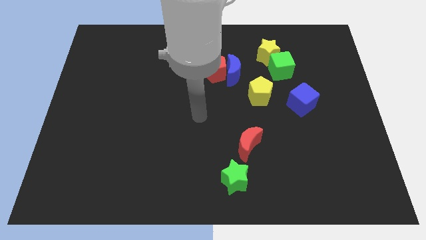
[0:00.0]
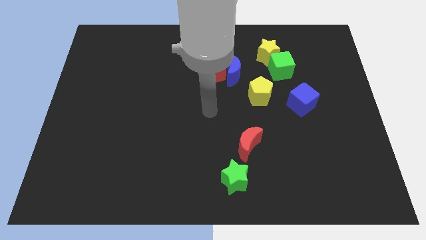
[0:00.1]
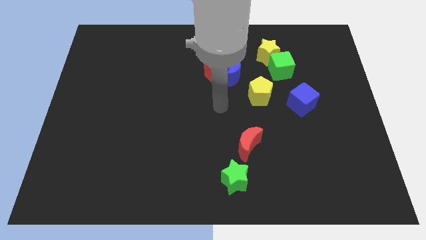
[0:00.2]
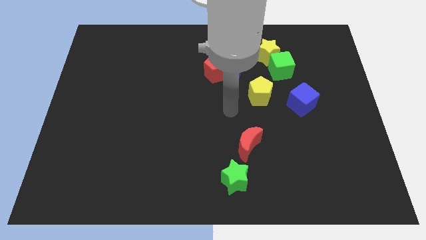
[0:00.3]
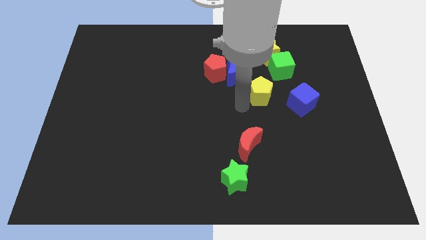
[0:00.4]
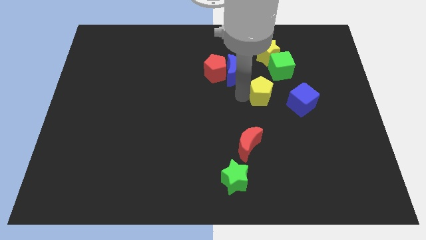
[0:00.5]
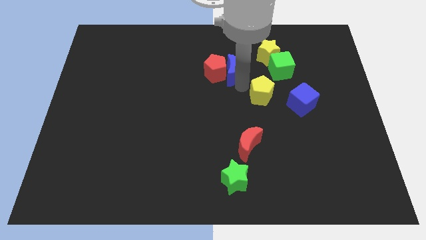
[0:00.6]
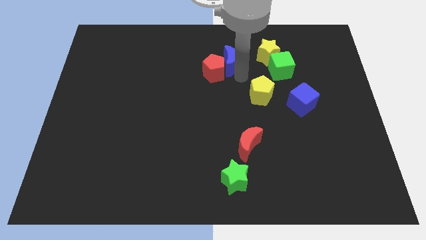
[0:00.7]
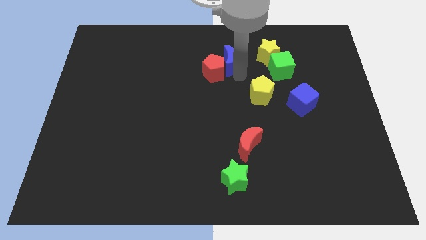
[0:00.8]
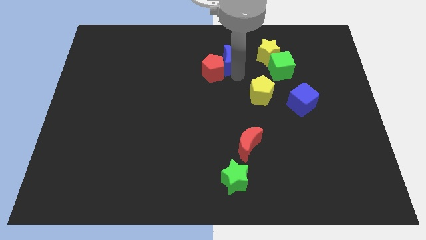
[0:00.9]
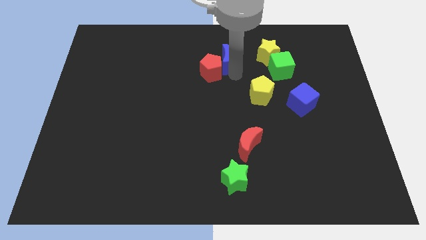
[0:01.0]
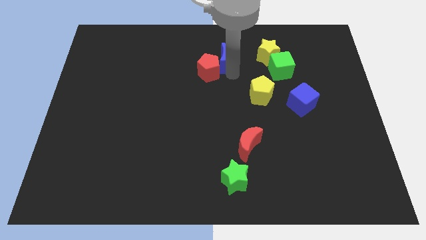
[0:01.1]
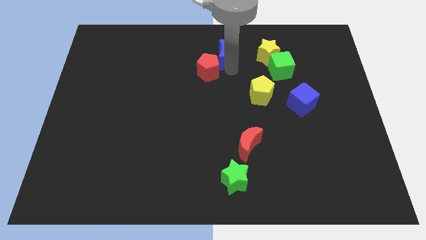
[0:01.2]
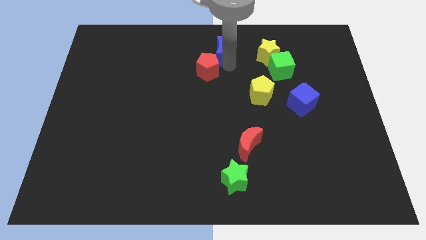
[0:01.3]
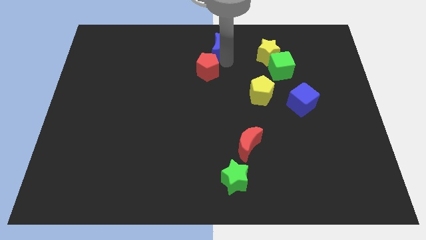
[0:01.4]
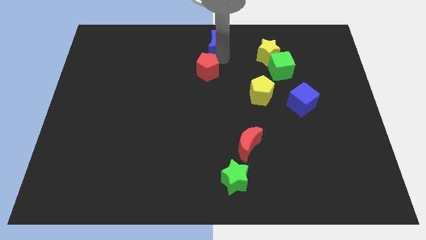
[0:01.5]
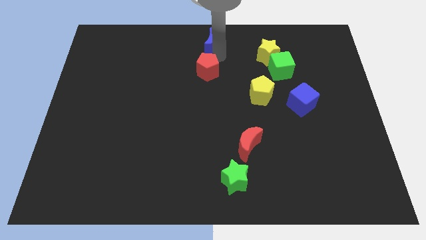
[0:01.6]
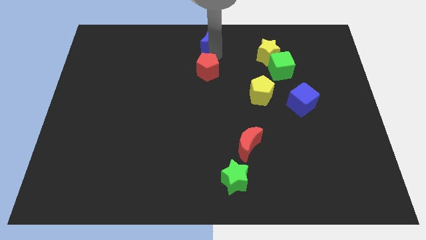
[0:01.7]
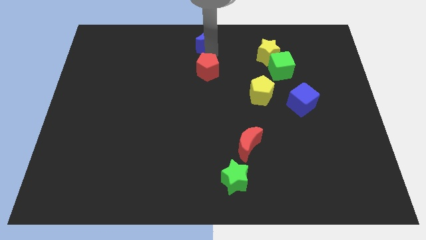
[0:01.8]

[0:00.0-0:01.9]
separate the red pentagon from the blue moon

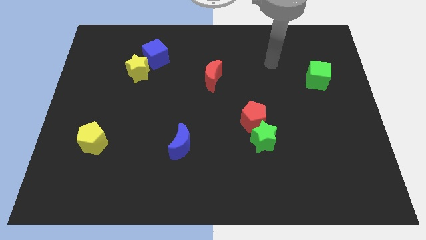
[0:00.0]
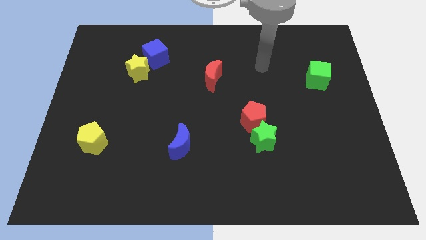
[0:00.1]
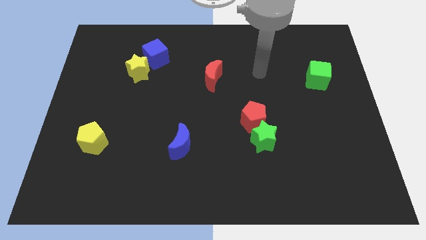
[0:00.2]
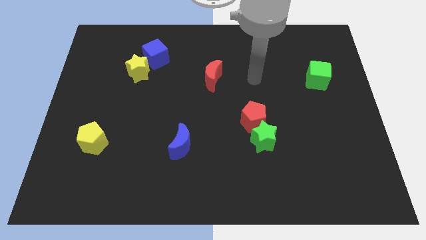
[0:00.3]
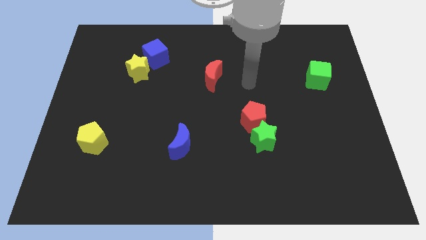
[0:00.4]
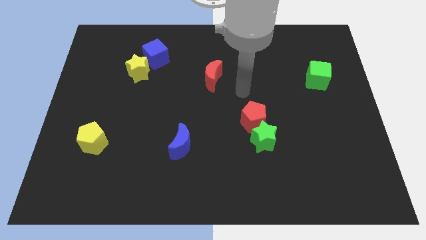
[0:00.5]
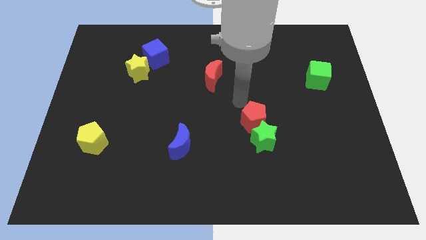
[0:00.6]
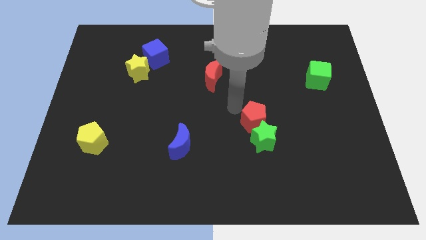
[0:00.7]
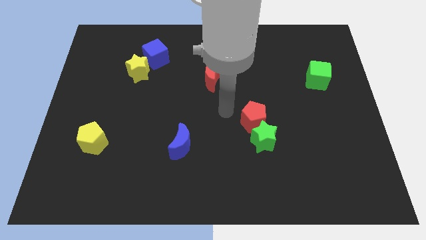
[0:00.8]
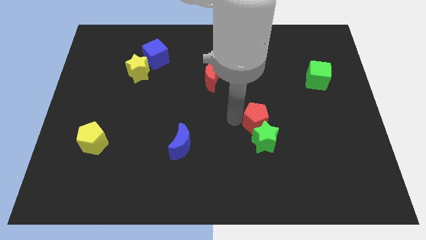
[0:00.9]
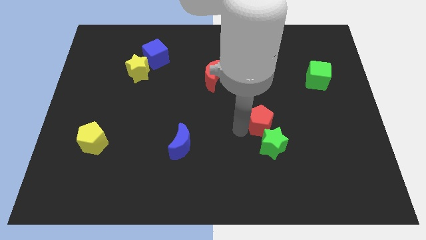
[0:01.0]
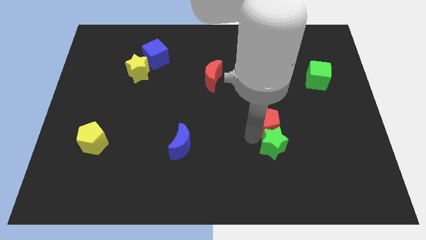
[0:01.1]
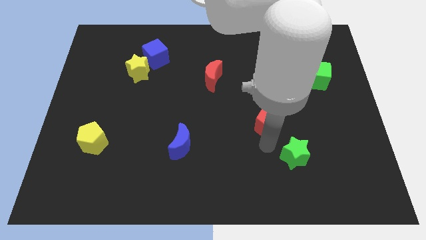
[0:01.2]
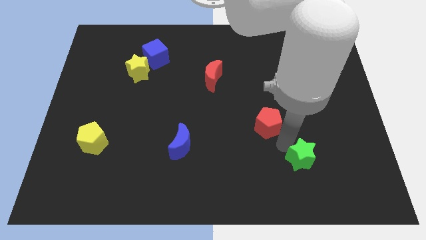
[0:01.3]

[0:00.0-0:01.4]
pull the red pentagon apart from the green star

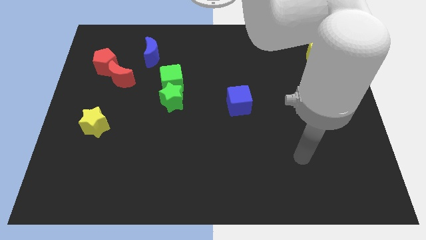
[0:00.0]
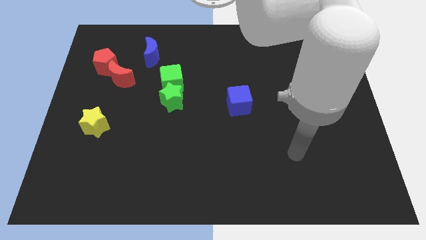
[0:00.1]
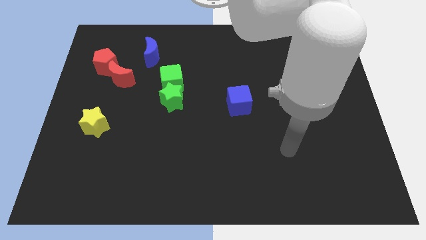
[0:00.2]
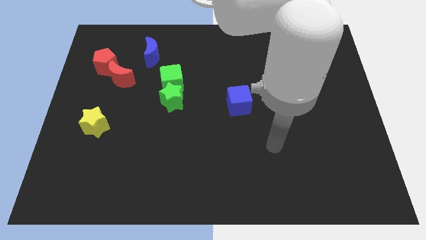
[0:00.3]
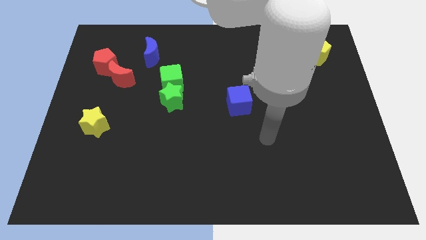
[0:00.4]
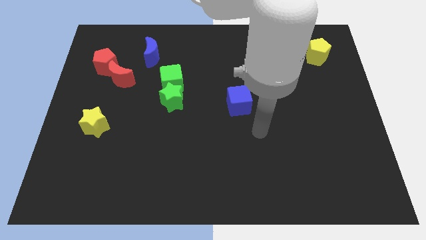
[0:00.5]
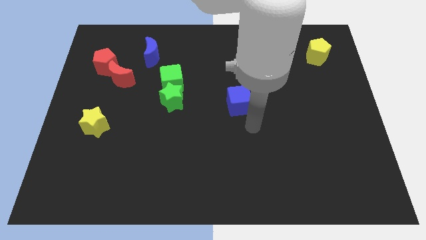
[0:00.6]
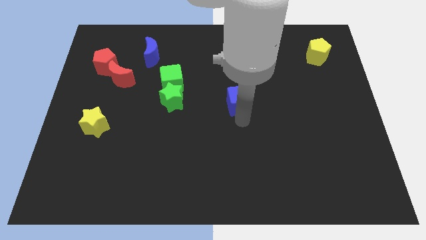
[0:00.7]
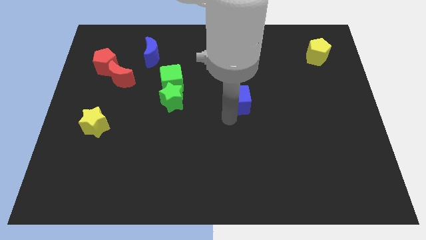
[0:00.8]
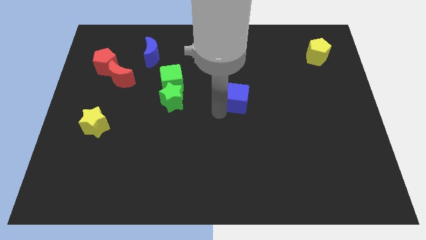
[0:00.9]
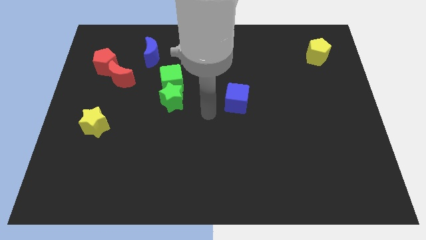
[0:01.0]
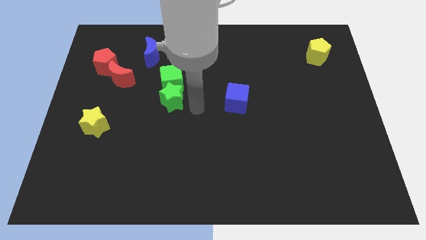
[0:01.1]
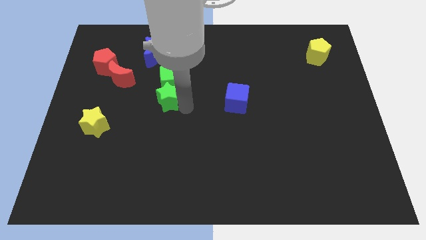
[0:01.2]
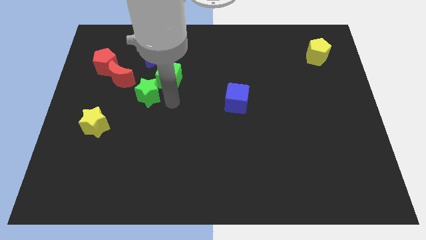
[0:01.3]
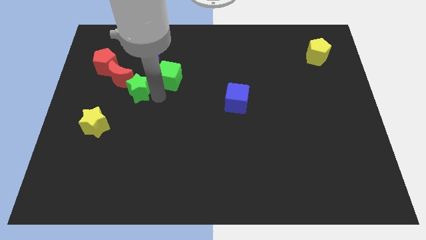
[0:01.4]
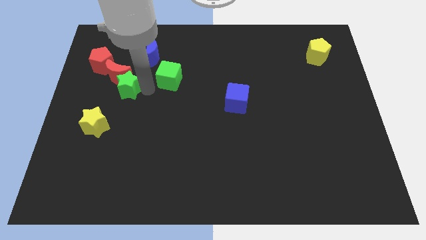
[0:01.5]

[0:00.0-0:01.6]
move the green cube away from the green star

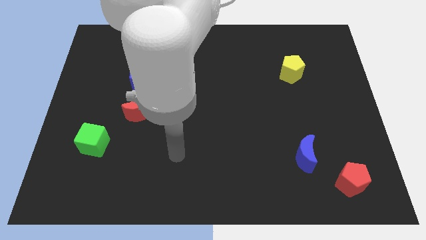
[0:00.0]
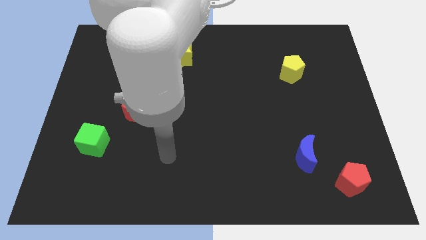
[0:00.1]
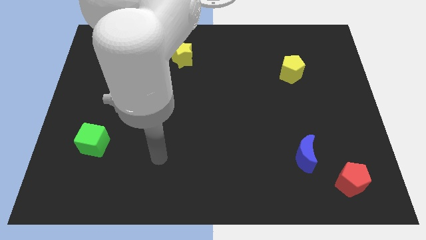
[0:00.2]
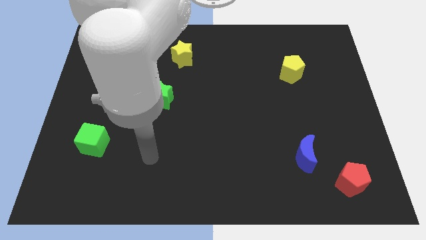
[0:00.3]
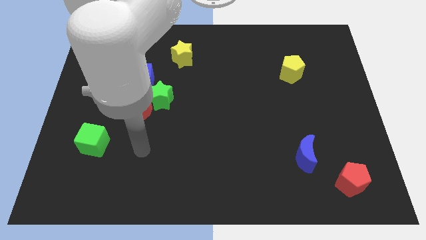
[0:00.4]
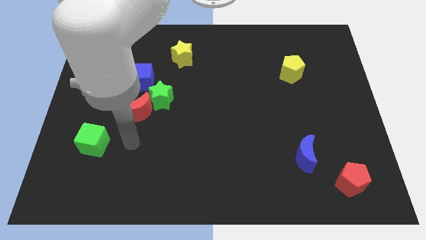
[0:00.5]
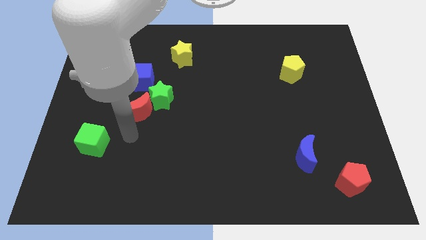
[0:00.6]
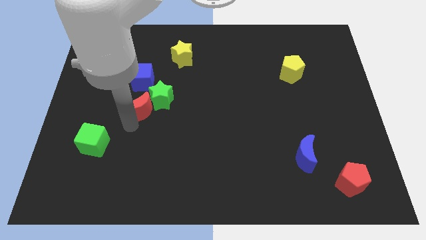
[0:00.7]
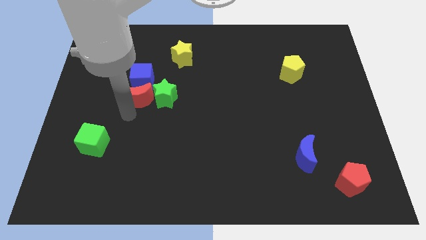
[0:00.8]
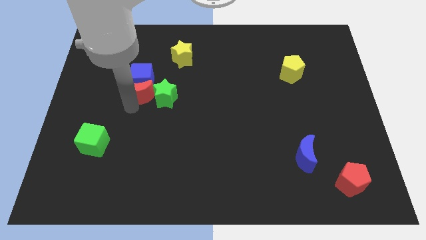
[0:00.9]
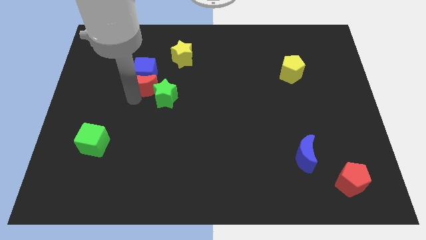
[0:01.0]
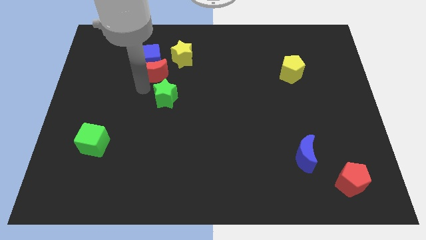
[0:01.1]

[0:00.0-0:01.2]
separate the green star from the red moon and blue cube

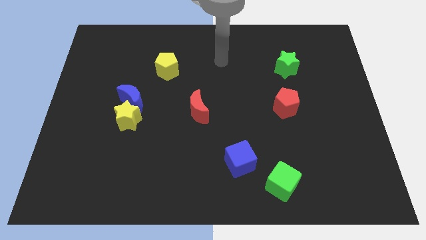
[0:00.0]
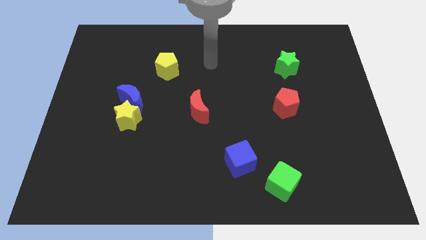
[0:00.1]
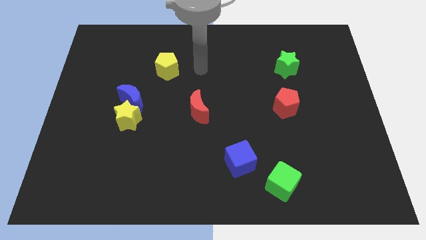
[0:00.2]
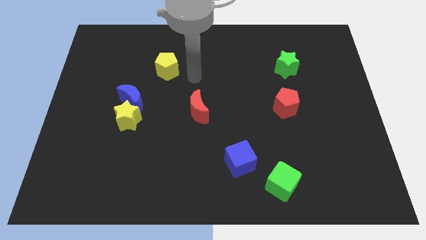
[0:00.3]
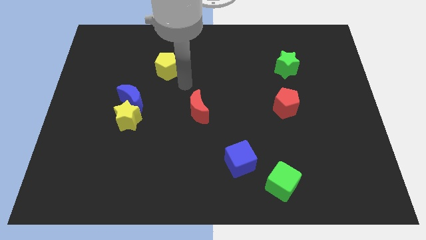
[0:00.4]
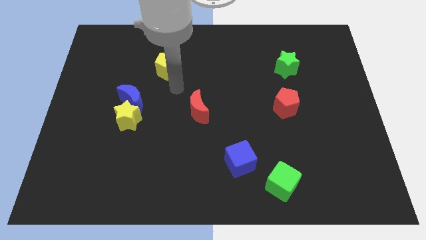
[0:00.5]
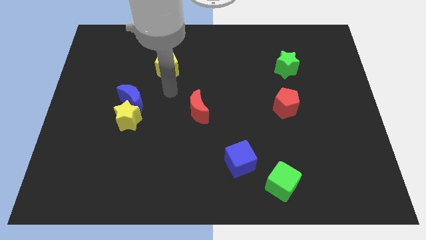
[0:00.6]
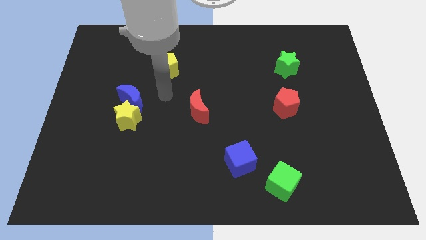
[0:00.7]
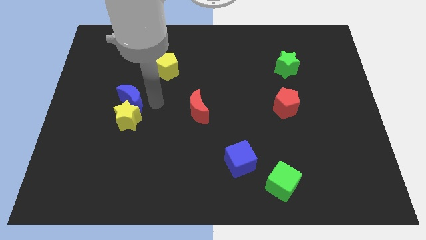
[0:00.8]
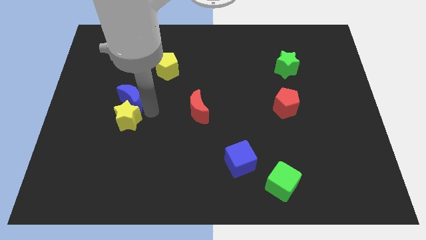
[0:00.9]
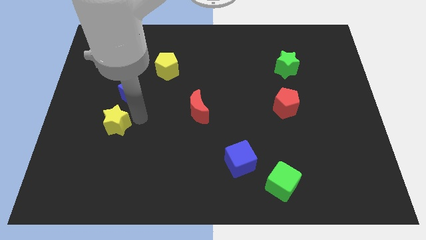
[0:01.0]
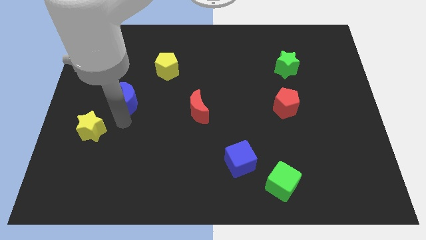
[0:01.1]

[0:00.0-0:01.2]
separate the blue moon from the yellow star

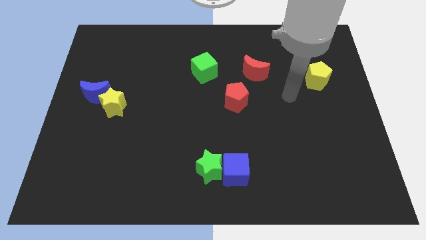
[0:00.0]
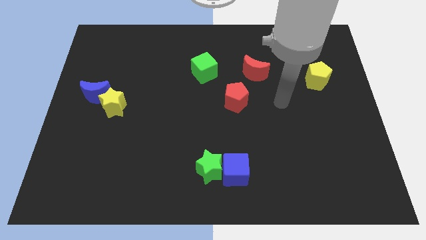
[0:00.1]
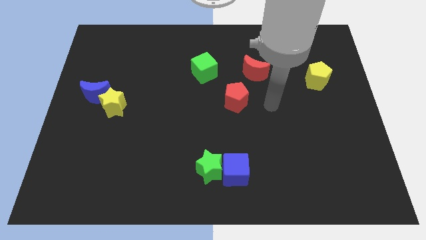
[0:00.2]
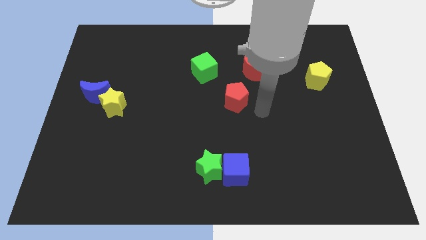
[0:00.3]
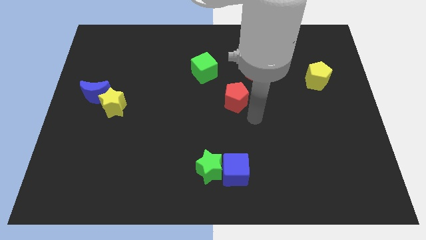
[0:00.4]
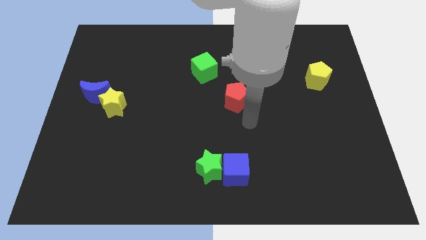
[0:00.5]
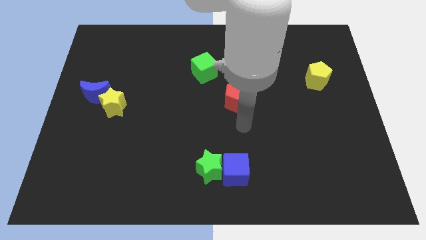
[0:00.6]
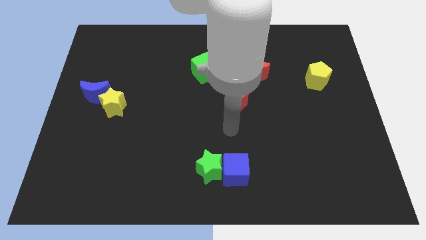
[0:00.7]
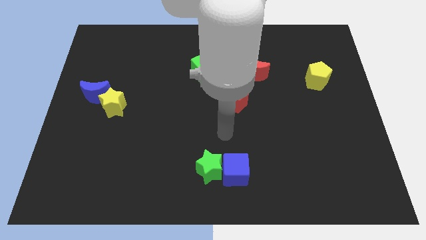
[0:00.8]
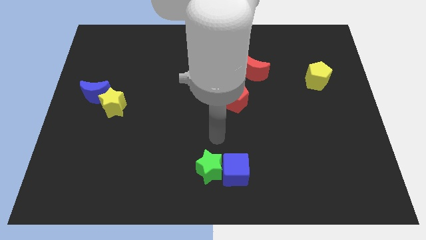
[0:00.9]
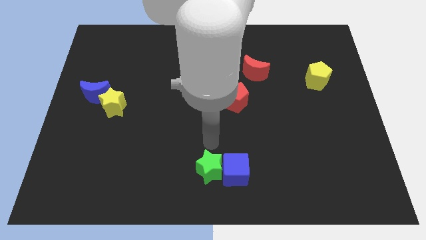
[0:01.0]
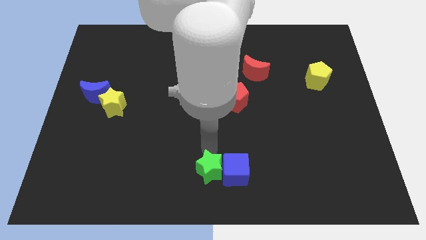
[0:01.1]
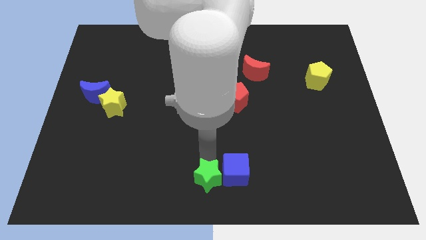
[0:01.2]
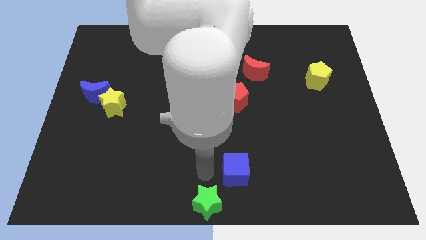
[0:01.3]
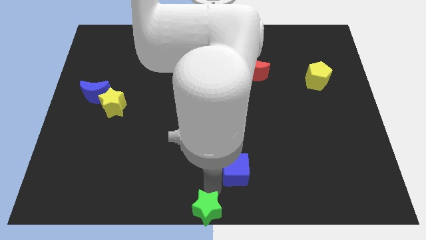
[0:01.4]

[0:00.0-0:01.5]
separate the blue cube from the green star

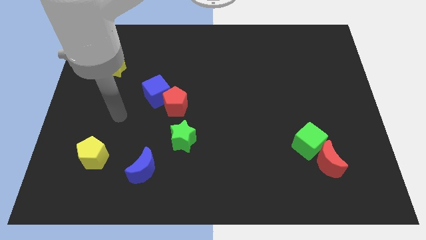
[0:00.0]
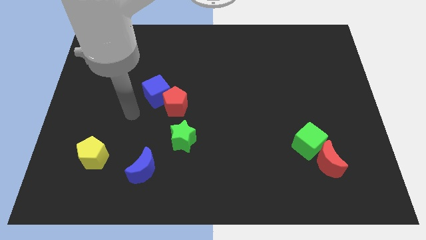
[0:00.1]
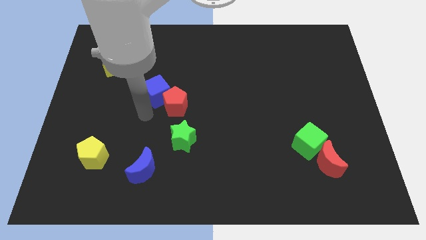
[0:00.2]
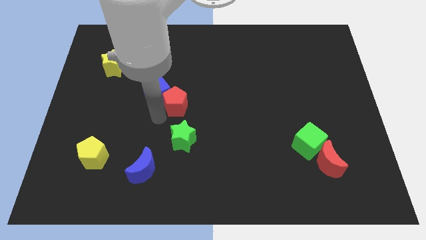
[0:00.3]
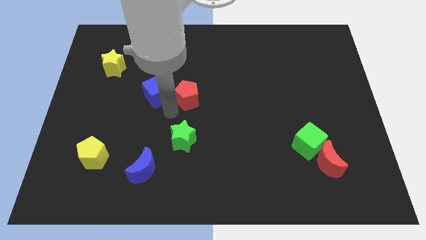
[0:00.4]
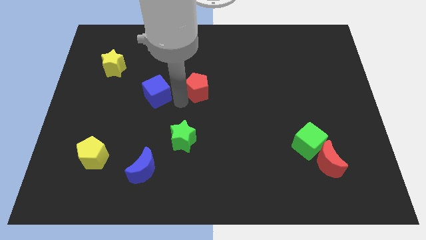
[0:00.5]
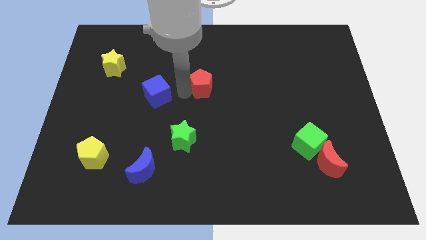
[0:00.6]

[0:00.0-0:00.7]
pull the blue cube apart from the red pentagon
